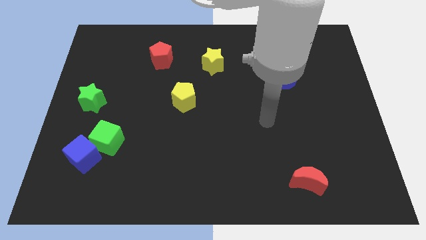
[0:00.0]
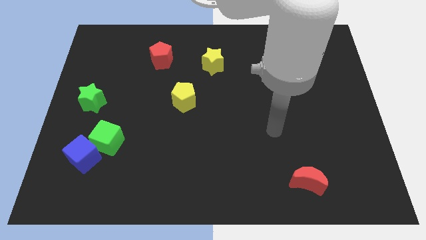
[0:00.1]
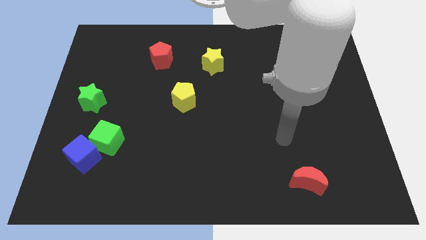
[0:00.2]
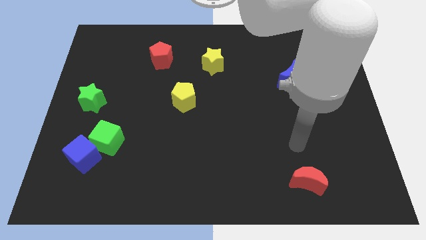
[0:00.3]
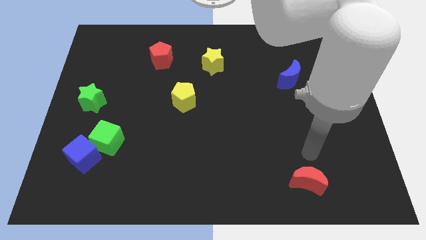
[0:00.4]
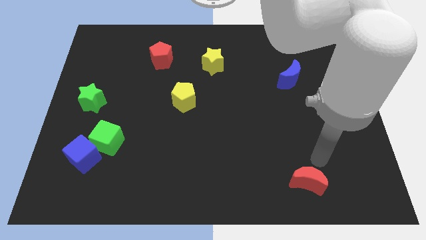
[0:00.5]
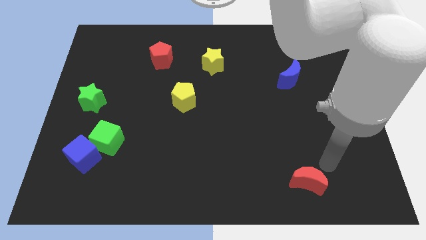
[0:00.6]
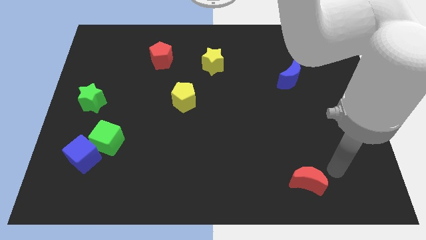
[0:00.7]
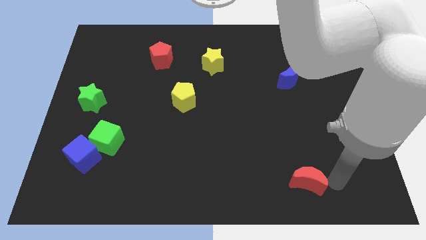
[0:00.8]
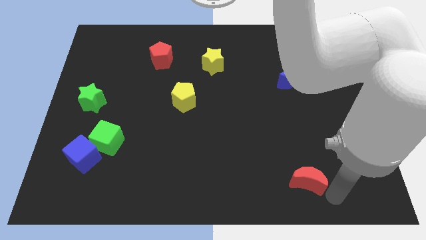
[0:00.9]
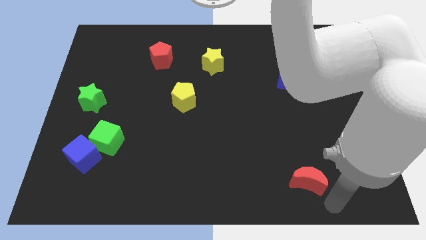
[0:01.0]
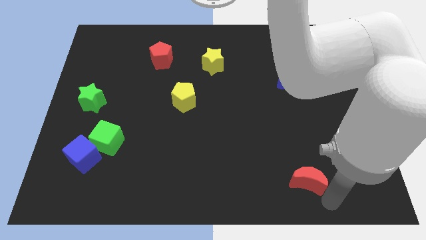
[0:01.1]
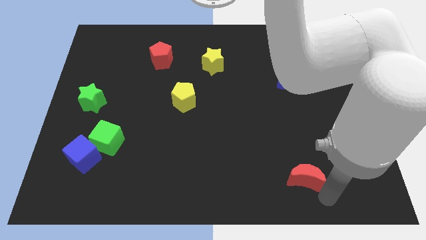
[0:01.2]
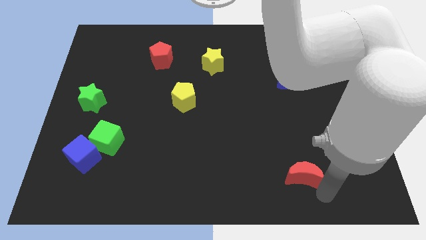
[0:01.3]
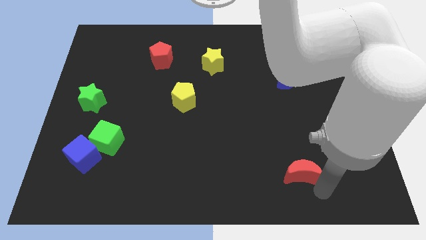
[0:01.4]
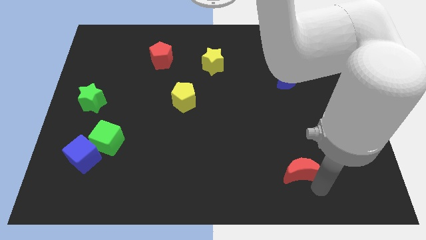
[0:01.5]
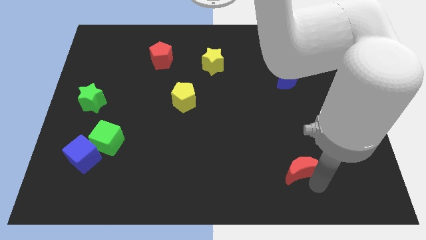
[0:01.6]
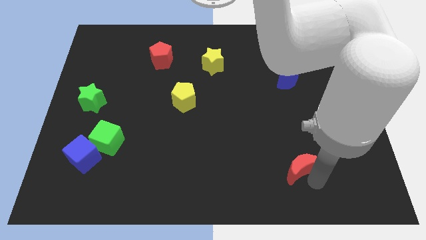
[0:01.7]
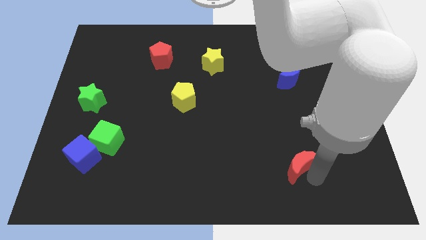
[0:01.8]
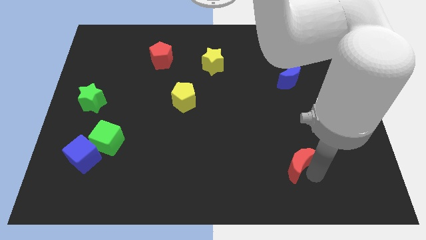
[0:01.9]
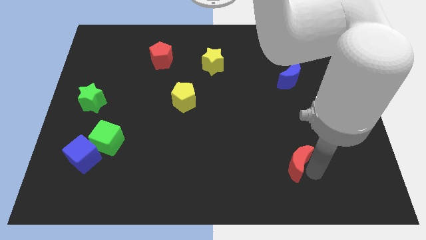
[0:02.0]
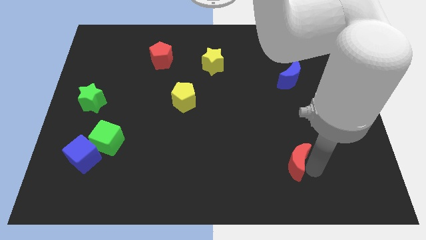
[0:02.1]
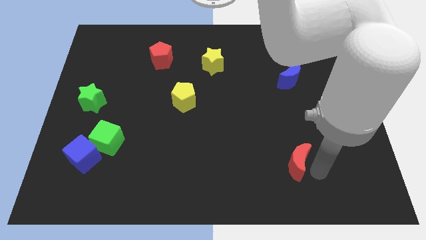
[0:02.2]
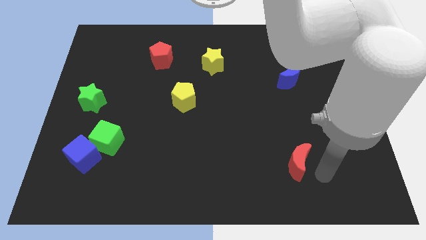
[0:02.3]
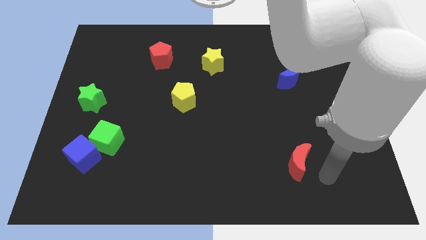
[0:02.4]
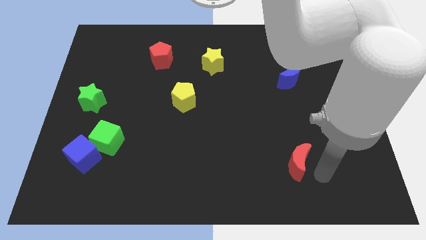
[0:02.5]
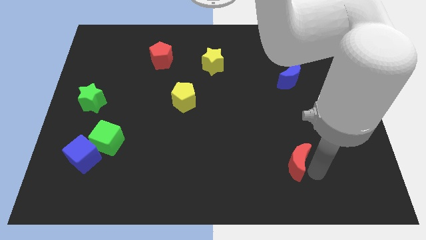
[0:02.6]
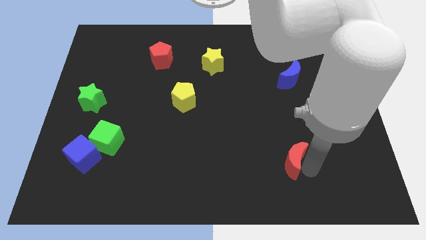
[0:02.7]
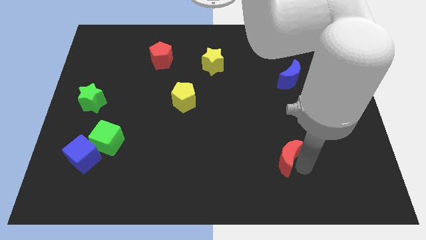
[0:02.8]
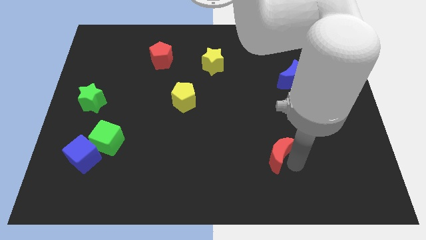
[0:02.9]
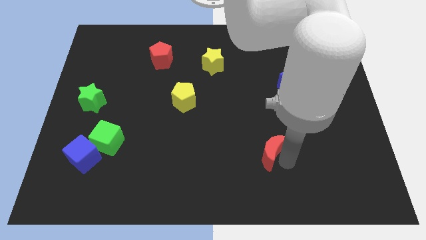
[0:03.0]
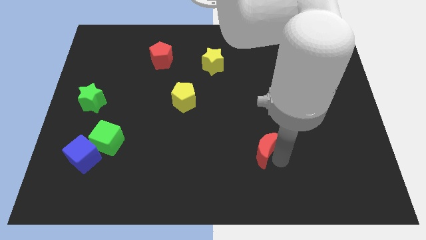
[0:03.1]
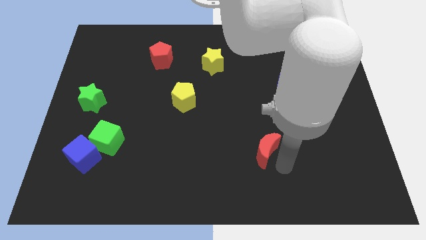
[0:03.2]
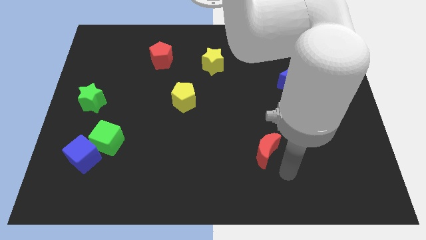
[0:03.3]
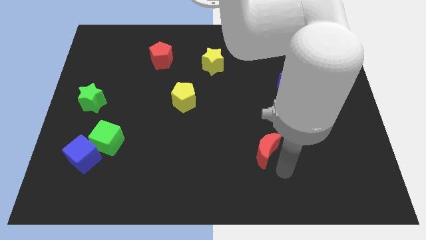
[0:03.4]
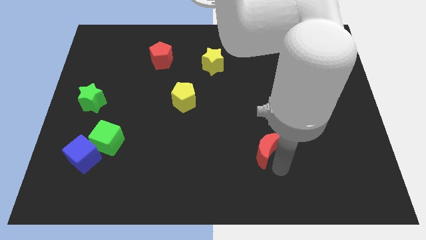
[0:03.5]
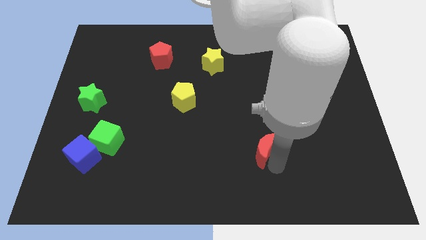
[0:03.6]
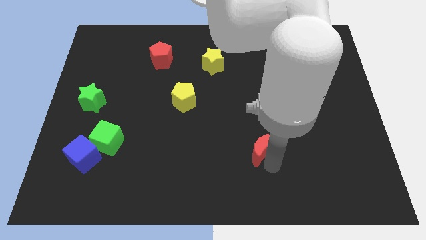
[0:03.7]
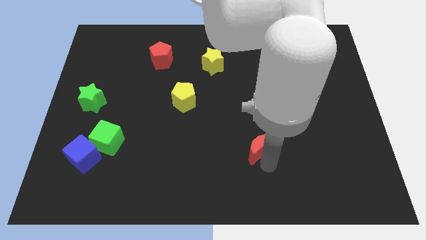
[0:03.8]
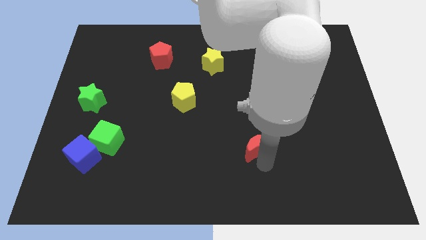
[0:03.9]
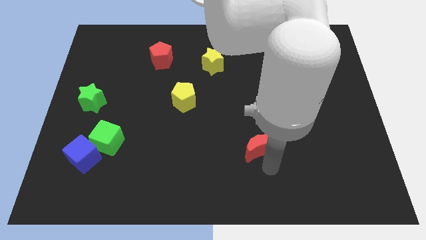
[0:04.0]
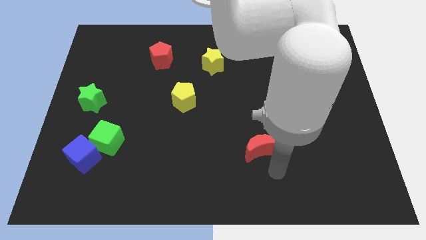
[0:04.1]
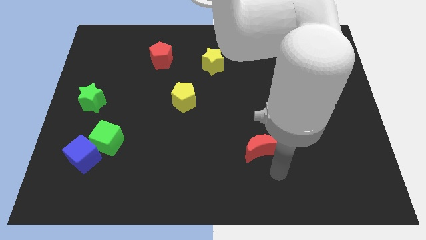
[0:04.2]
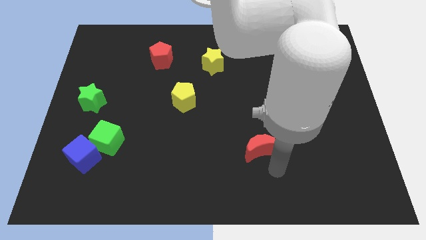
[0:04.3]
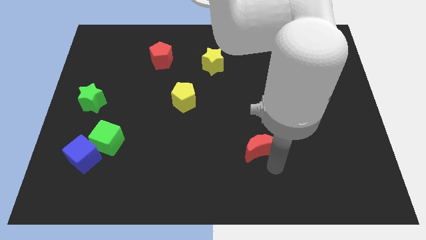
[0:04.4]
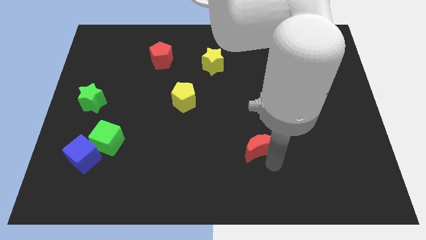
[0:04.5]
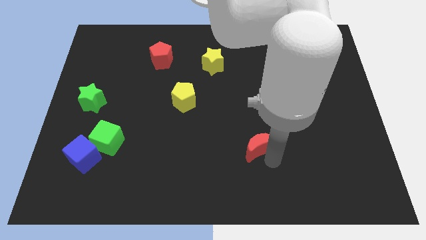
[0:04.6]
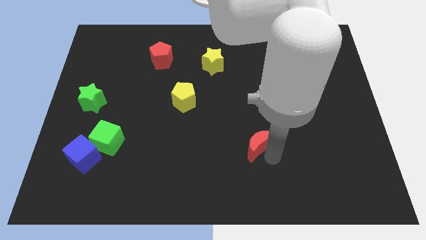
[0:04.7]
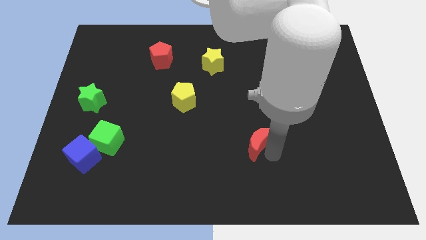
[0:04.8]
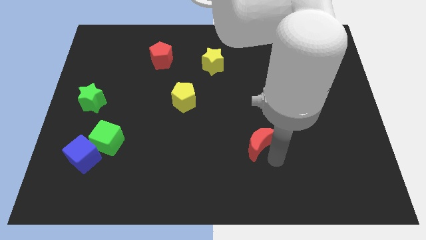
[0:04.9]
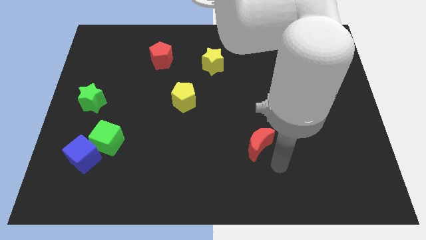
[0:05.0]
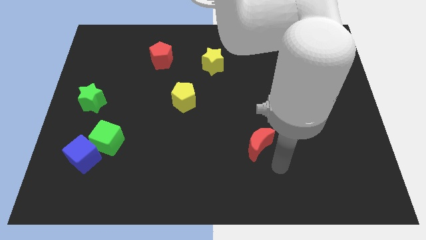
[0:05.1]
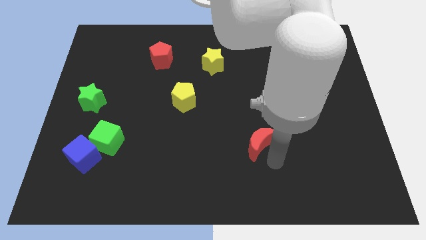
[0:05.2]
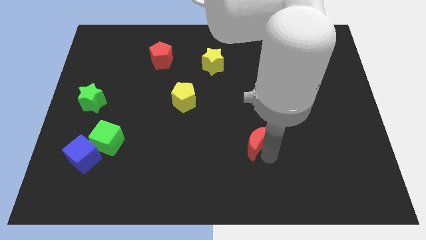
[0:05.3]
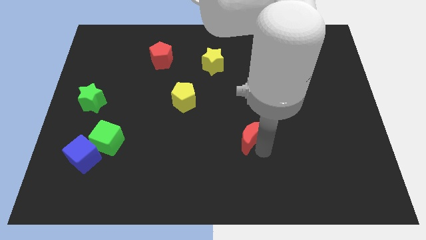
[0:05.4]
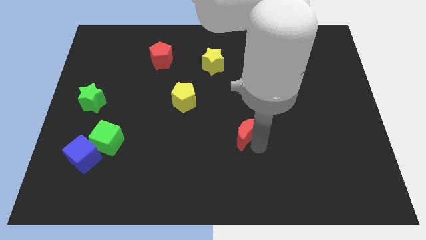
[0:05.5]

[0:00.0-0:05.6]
put the red moon to the center of the board
